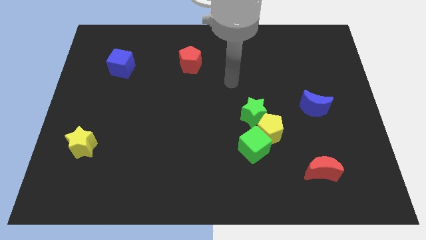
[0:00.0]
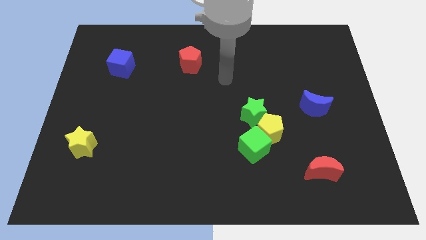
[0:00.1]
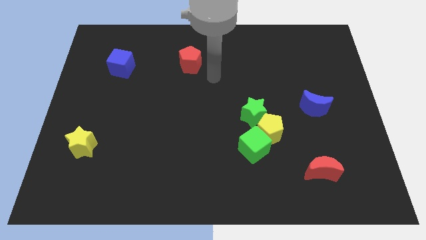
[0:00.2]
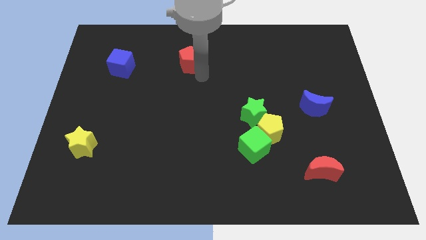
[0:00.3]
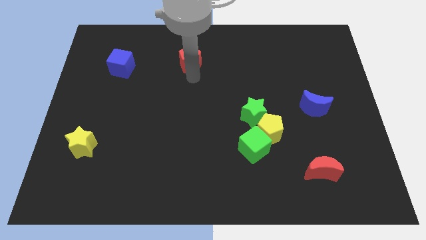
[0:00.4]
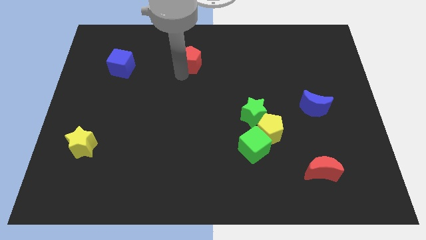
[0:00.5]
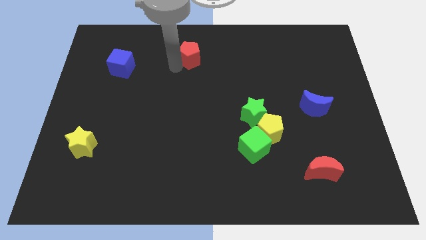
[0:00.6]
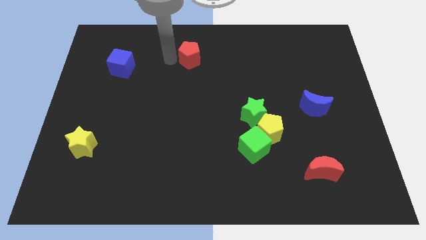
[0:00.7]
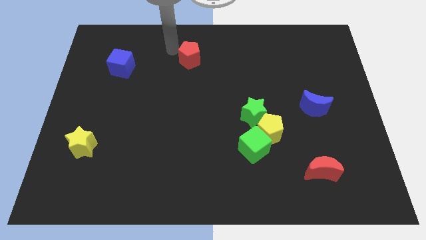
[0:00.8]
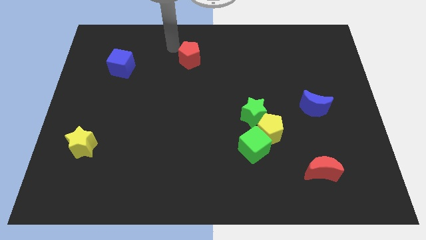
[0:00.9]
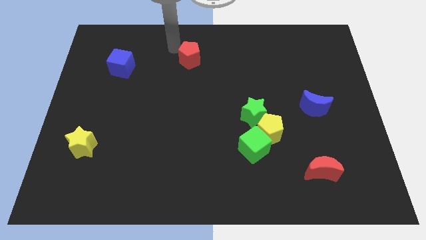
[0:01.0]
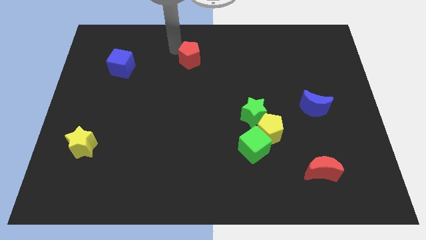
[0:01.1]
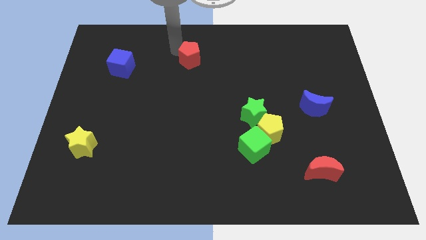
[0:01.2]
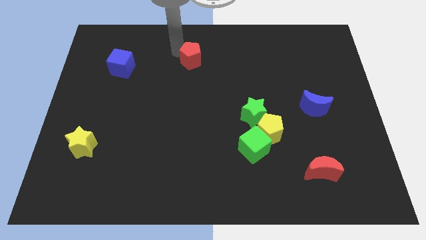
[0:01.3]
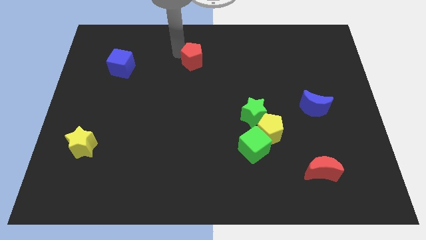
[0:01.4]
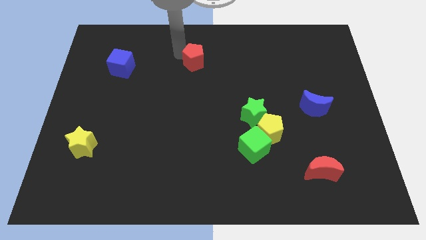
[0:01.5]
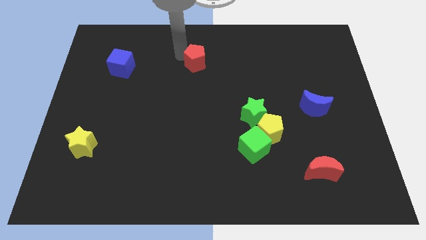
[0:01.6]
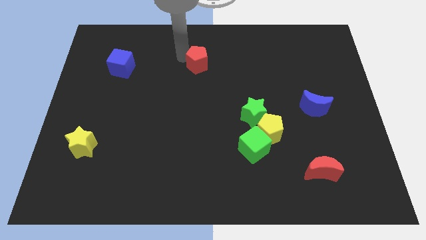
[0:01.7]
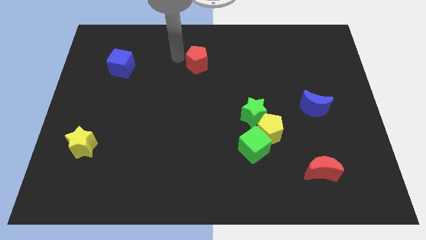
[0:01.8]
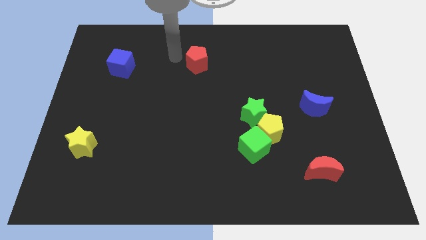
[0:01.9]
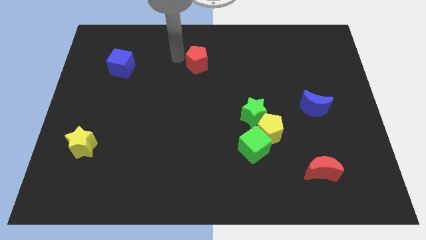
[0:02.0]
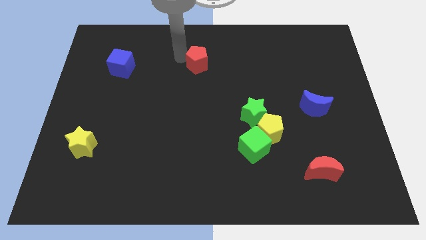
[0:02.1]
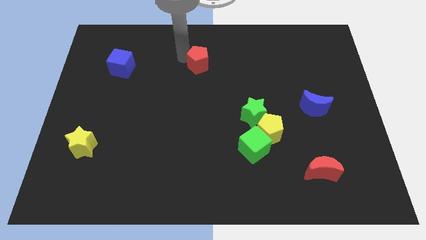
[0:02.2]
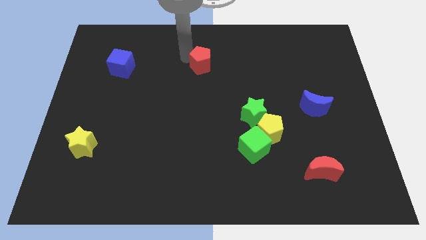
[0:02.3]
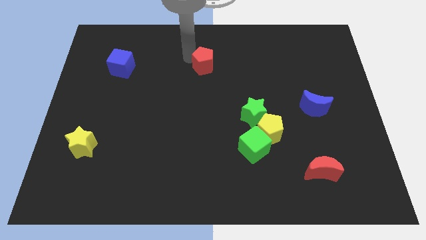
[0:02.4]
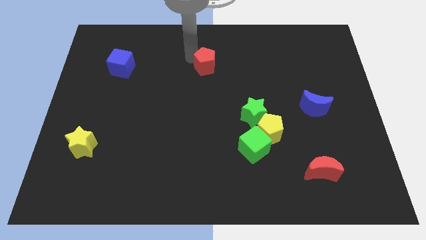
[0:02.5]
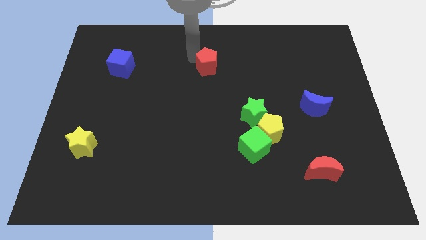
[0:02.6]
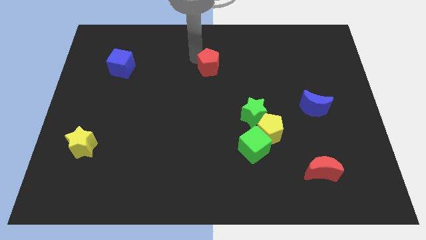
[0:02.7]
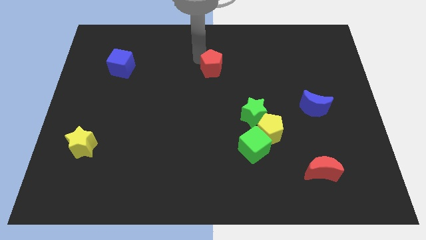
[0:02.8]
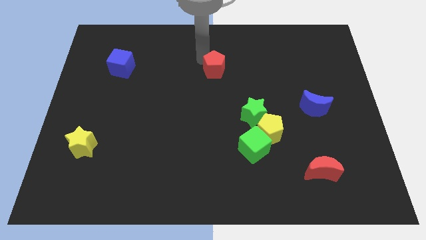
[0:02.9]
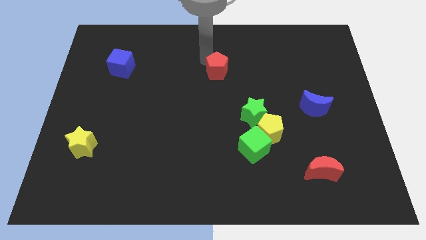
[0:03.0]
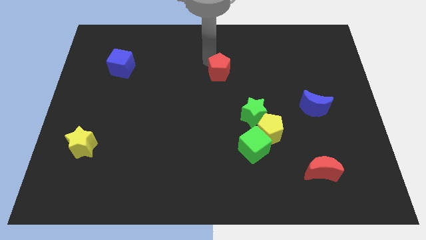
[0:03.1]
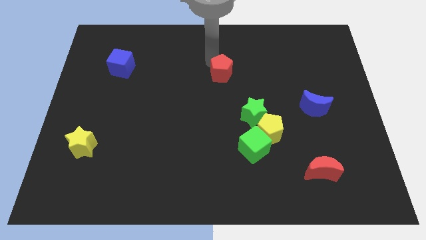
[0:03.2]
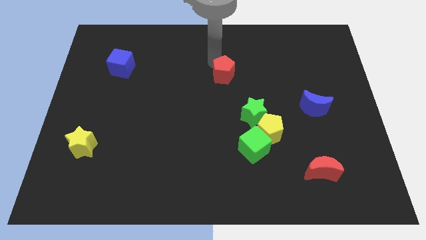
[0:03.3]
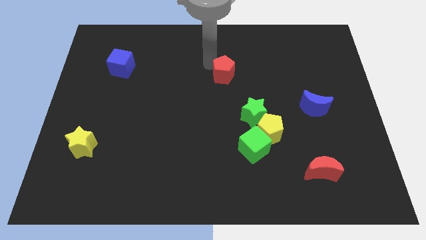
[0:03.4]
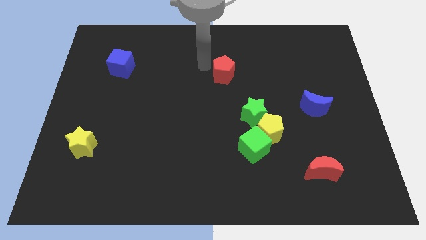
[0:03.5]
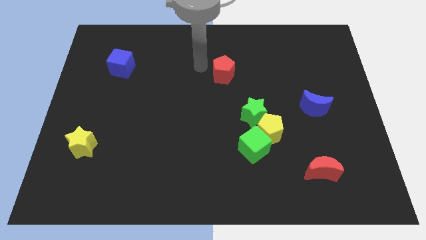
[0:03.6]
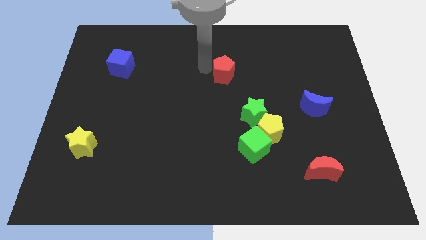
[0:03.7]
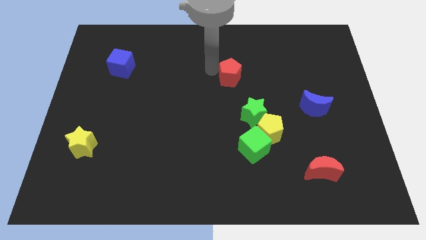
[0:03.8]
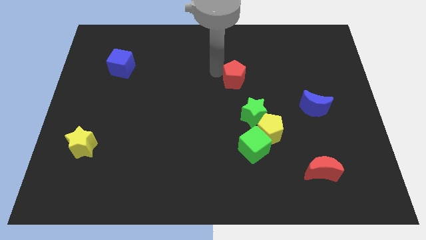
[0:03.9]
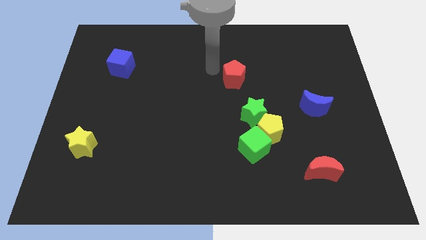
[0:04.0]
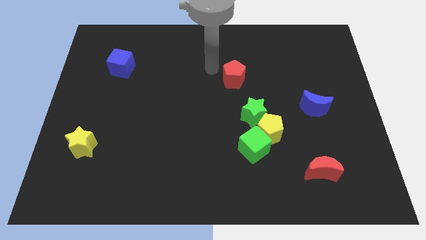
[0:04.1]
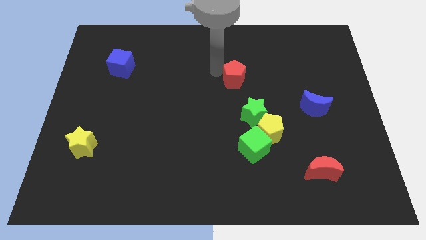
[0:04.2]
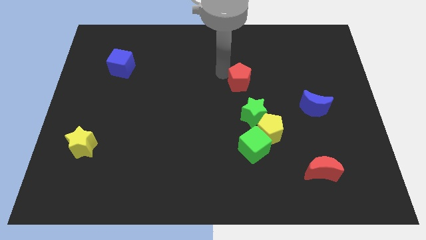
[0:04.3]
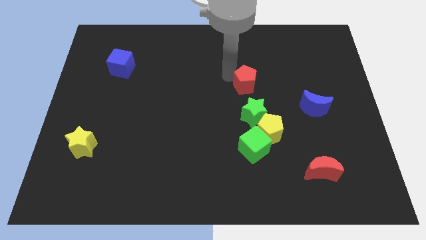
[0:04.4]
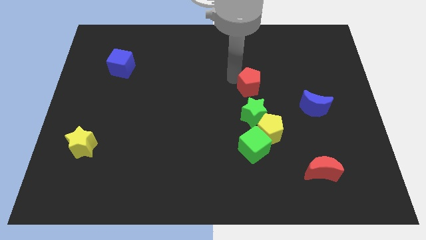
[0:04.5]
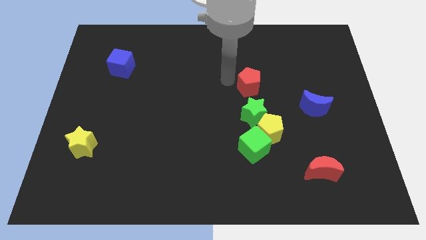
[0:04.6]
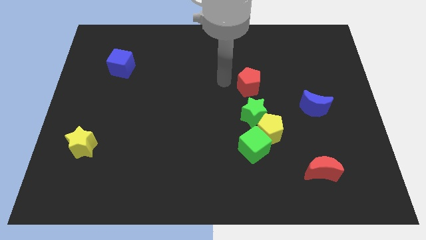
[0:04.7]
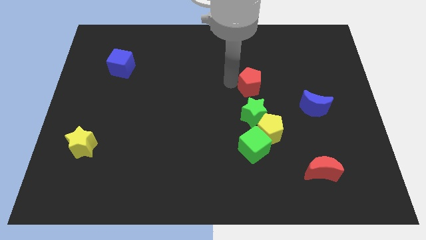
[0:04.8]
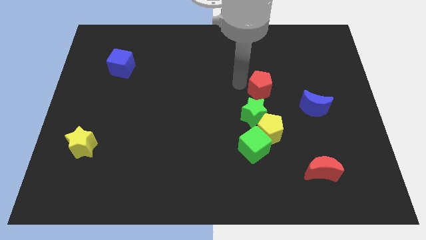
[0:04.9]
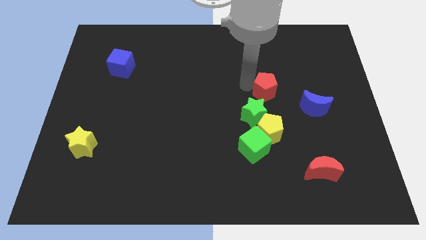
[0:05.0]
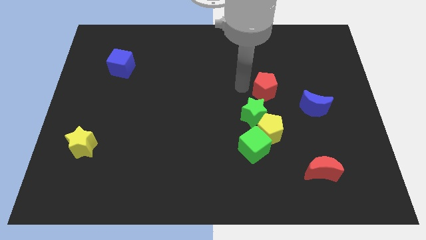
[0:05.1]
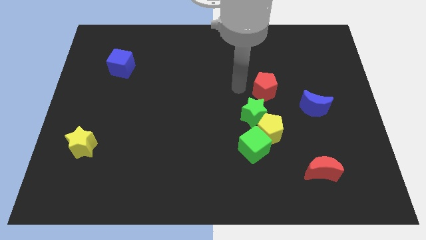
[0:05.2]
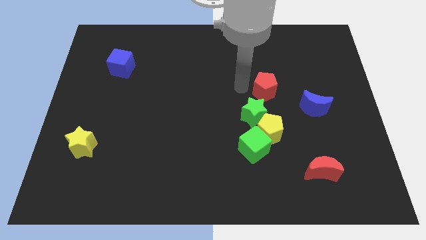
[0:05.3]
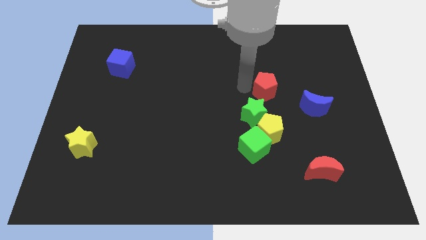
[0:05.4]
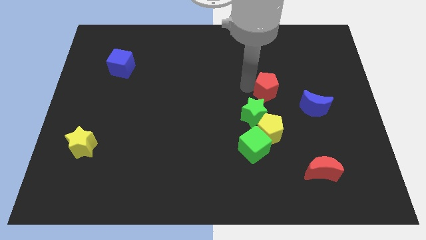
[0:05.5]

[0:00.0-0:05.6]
push the red pentagon to the top left side of the blue moon

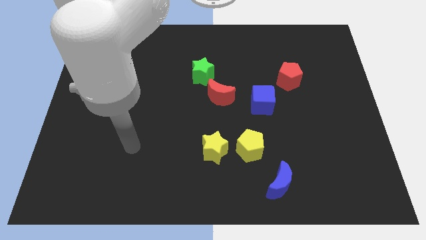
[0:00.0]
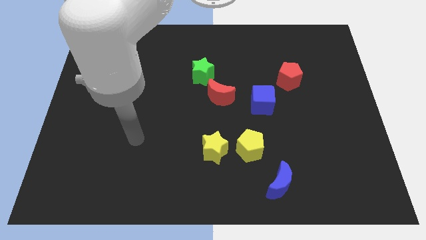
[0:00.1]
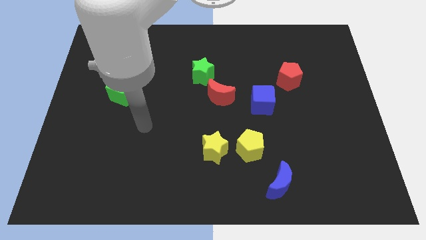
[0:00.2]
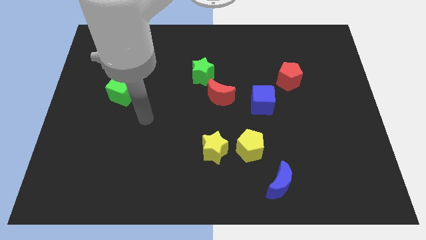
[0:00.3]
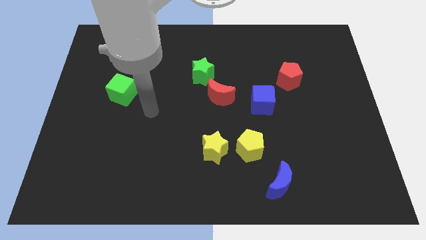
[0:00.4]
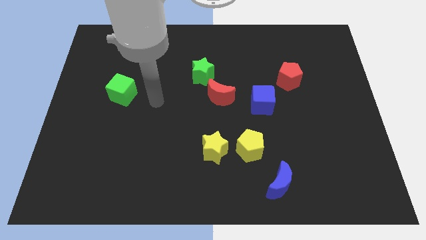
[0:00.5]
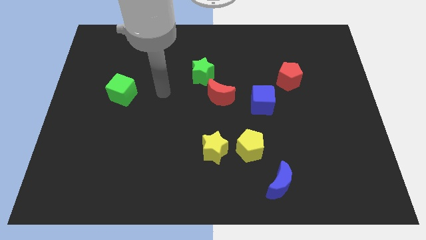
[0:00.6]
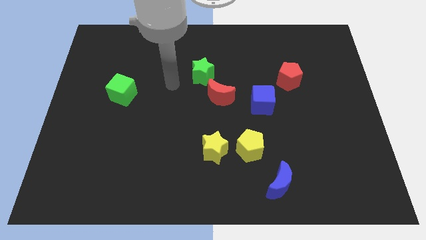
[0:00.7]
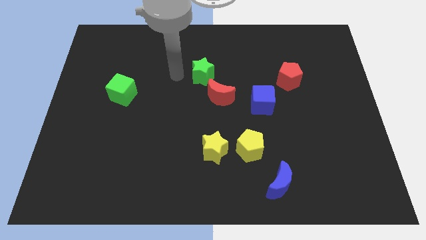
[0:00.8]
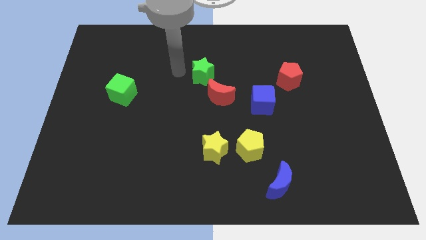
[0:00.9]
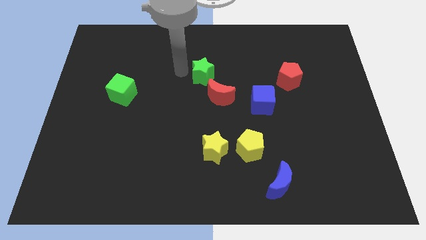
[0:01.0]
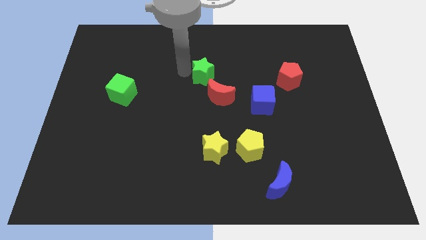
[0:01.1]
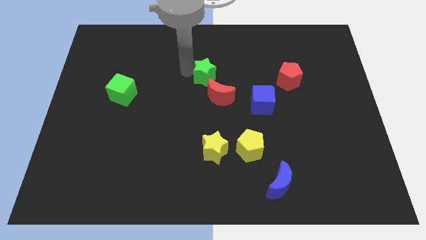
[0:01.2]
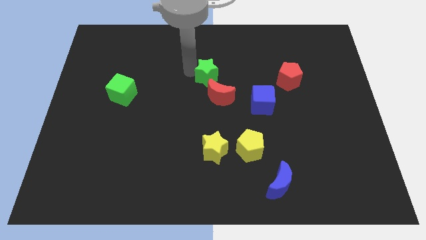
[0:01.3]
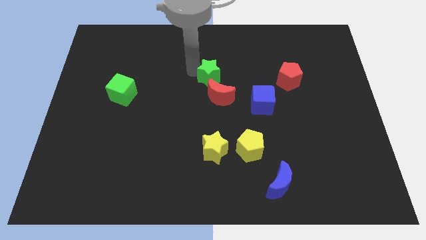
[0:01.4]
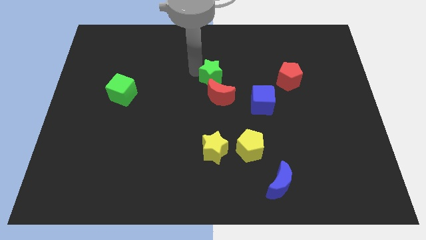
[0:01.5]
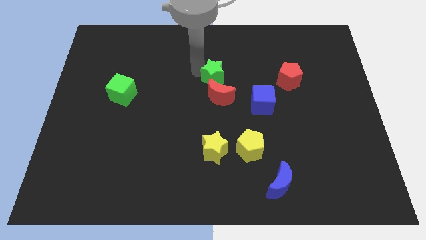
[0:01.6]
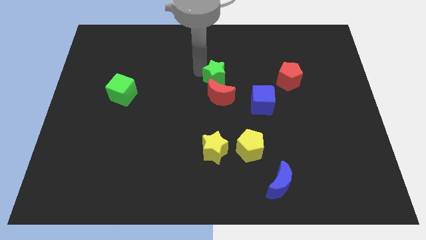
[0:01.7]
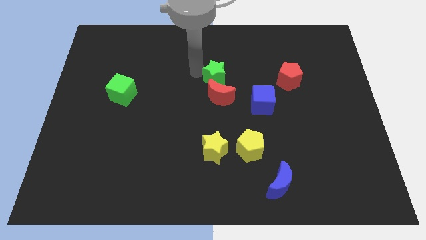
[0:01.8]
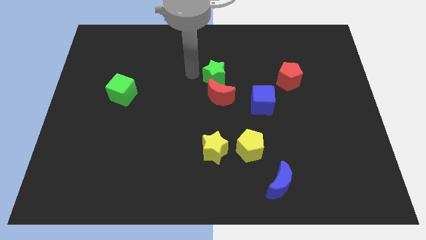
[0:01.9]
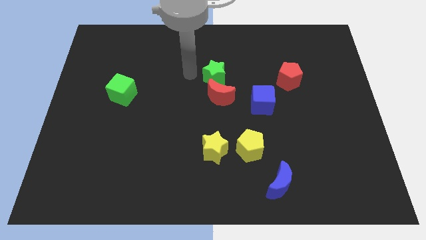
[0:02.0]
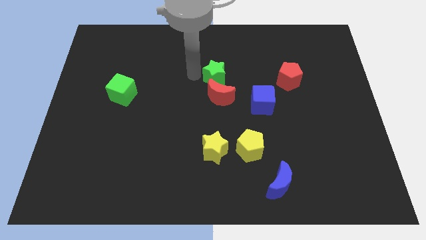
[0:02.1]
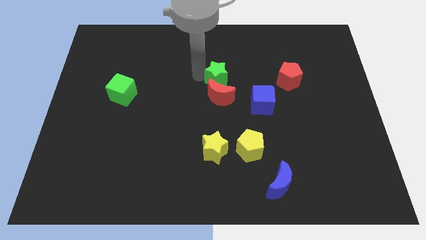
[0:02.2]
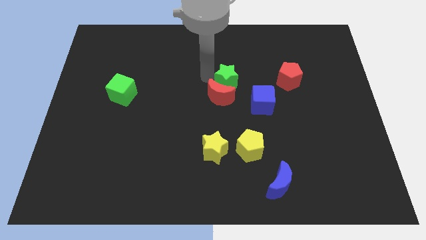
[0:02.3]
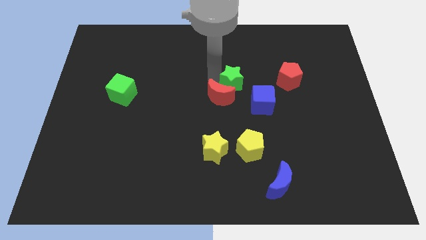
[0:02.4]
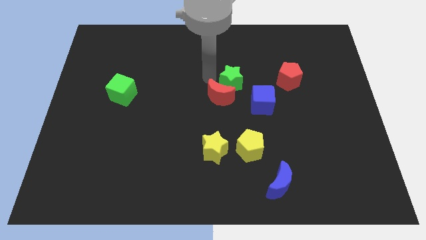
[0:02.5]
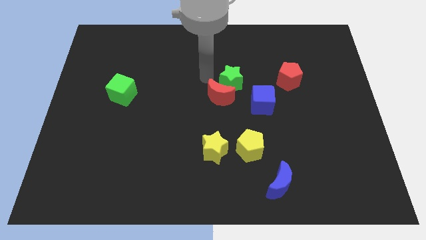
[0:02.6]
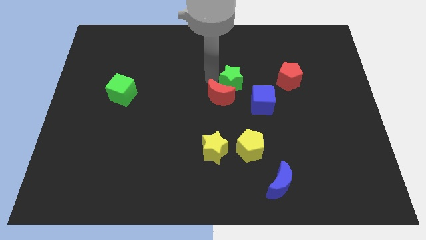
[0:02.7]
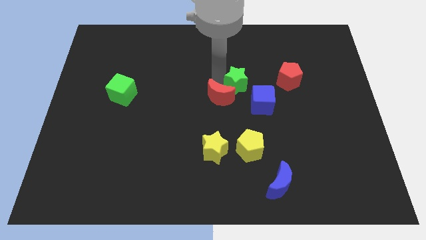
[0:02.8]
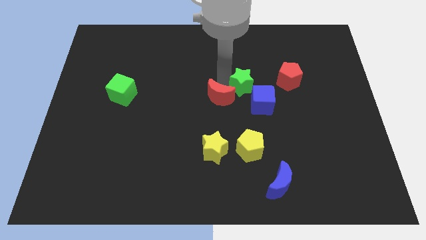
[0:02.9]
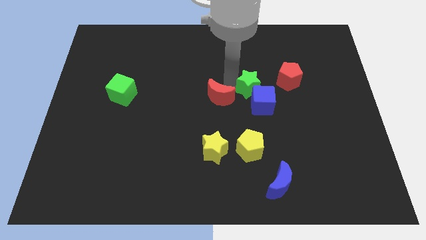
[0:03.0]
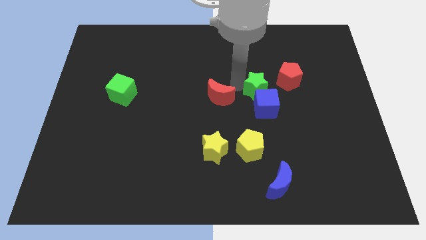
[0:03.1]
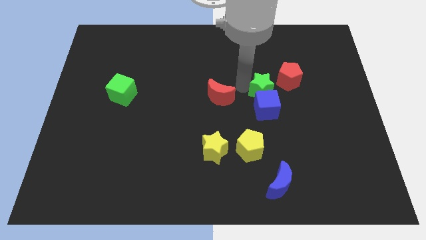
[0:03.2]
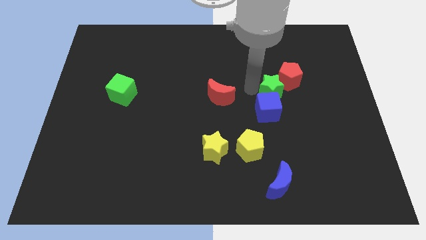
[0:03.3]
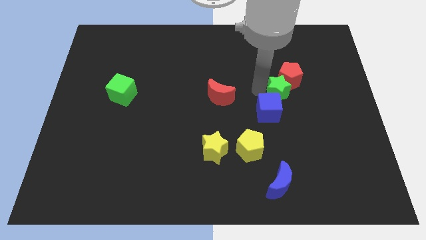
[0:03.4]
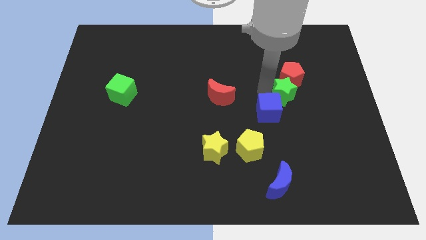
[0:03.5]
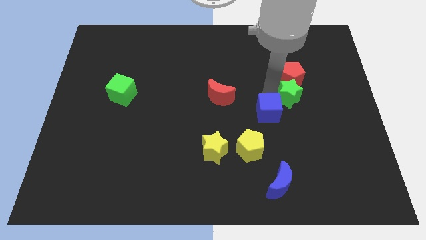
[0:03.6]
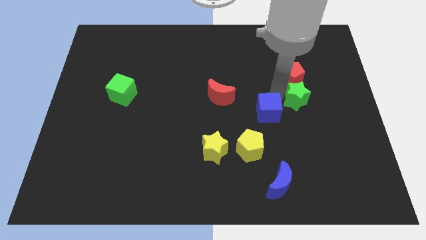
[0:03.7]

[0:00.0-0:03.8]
put the green star to the bottom right of the red pentagon
